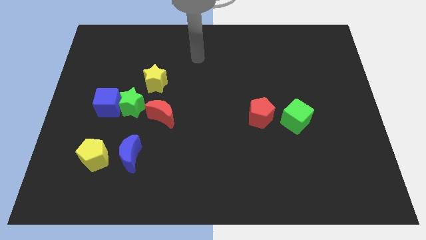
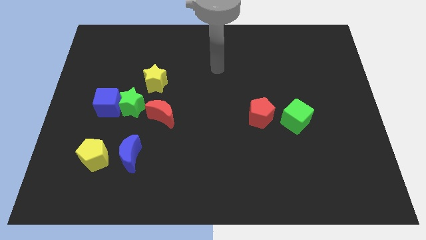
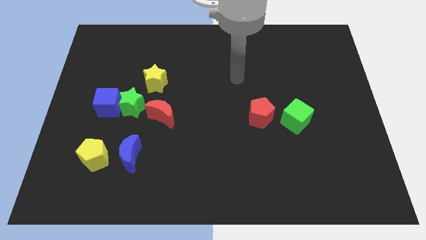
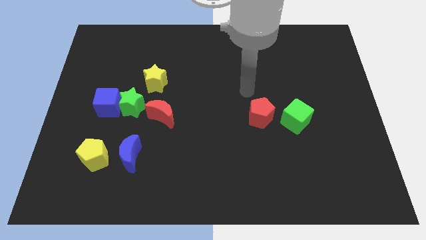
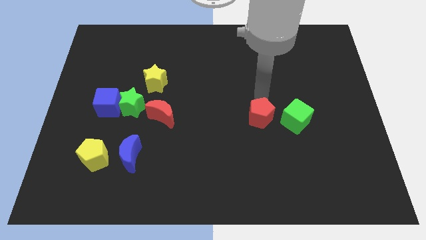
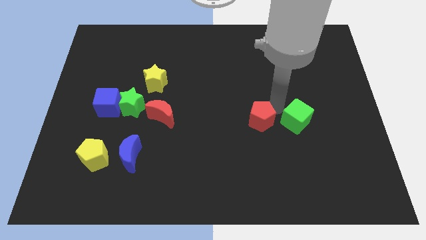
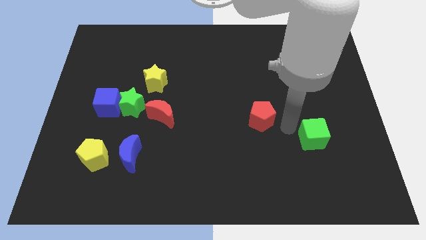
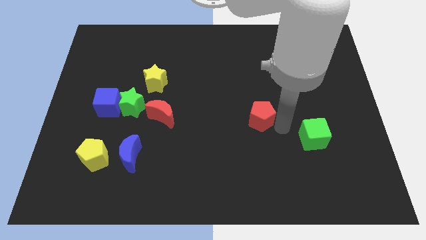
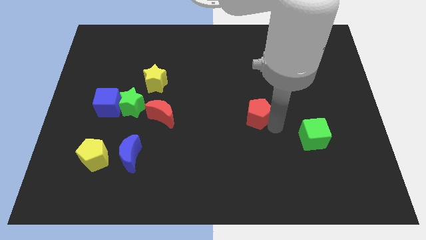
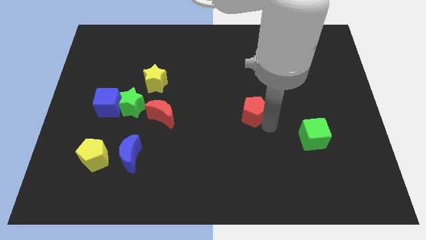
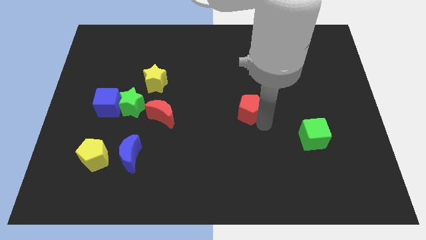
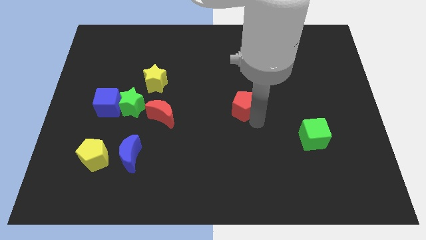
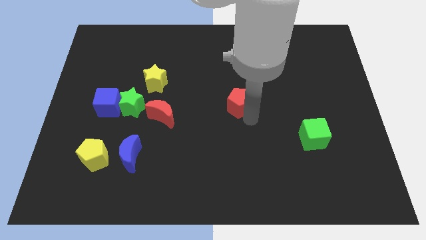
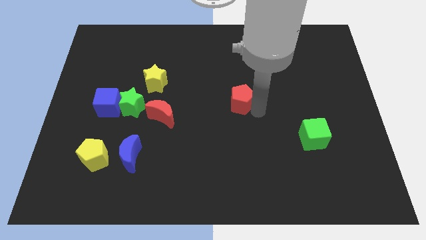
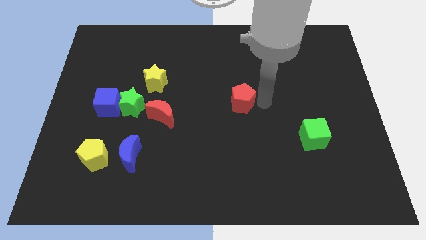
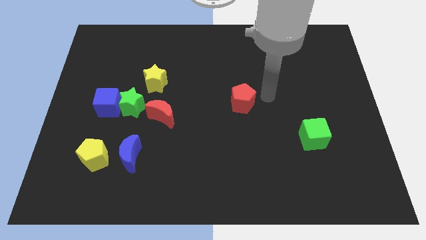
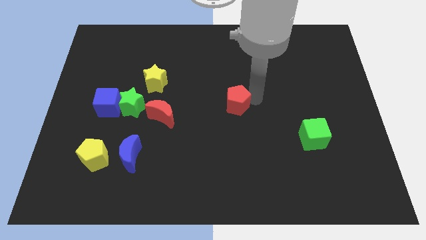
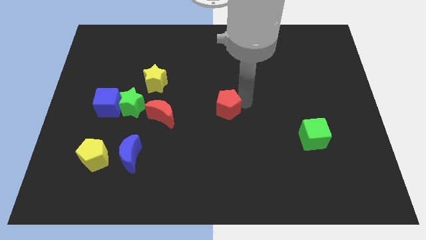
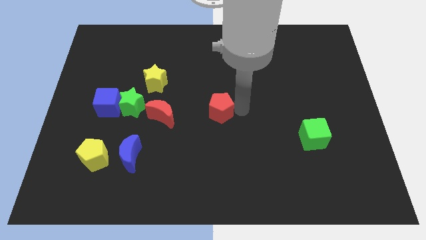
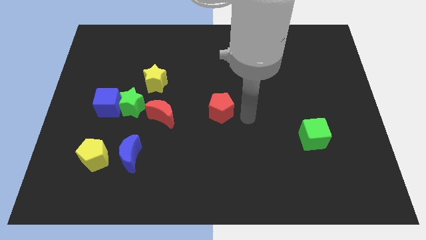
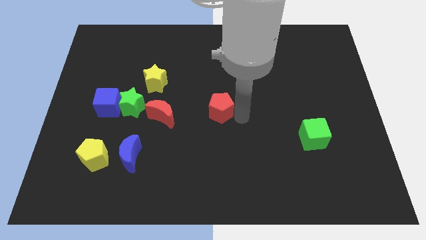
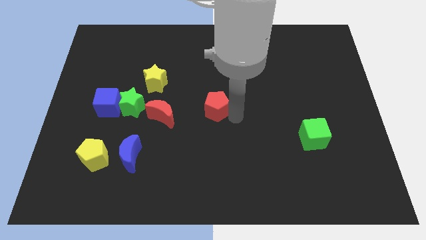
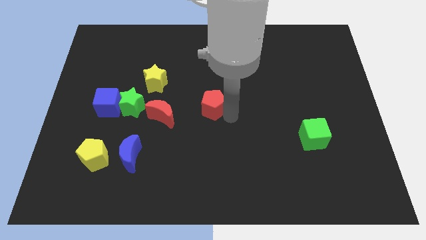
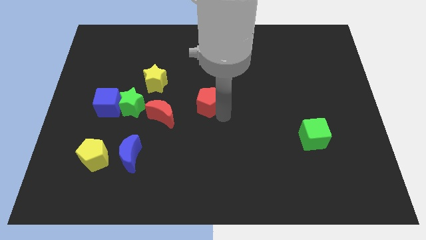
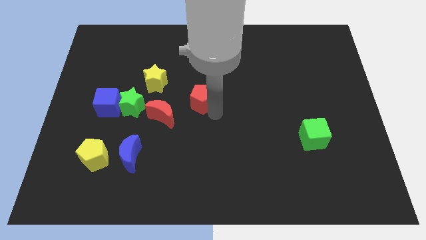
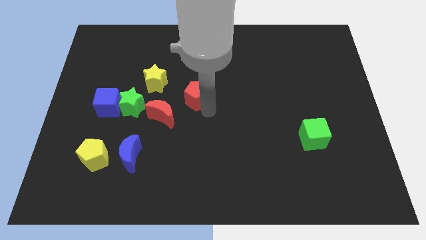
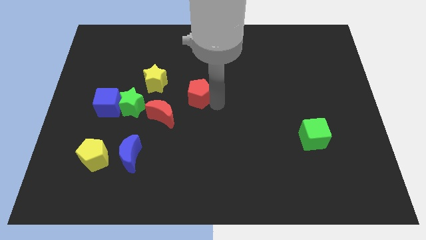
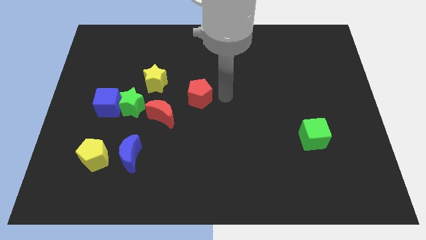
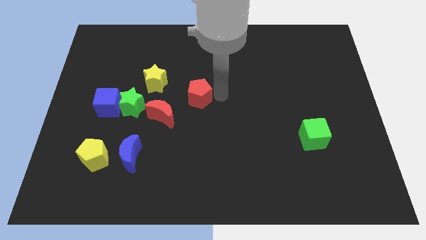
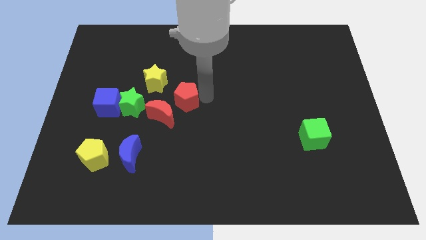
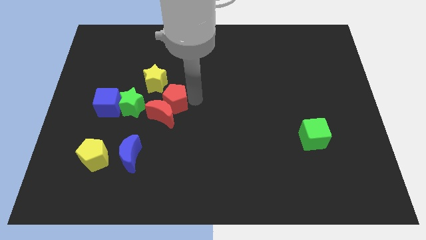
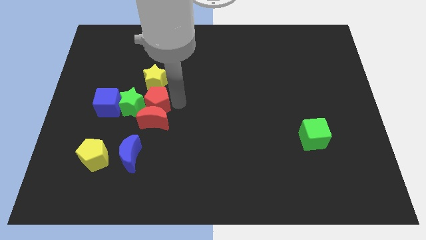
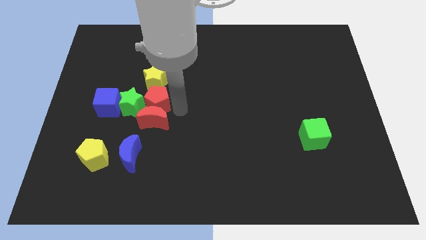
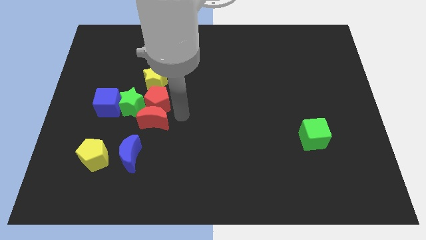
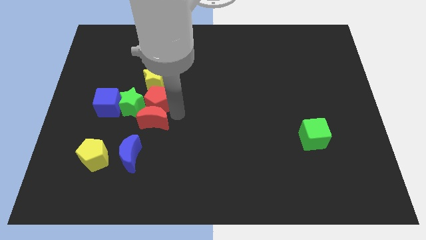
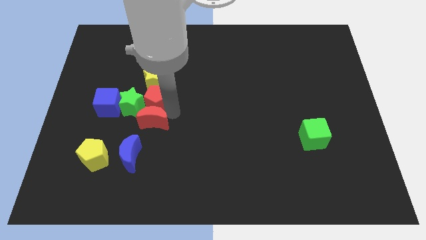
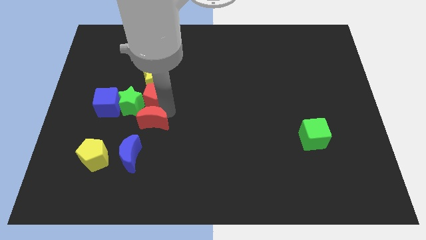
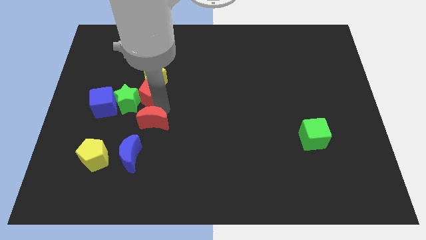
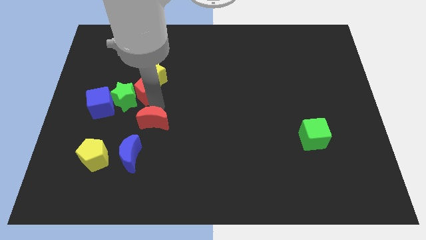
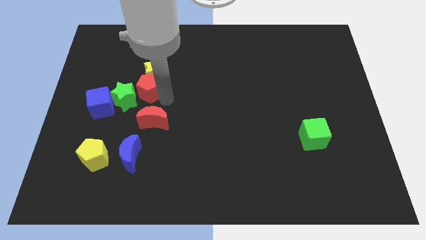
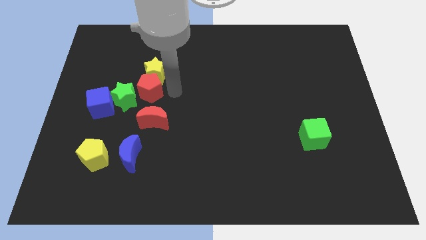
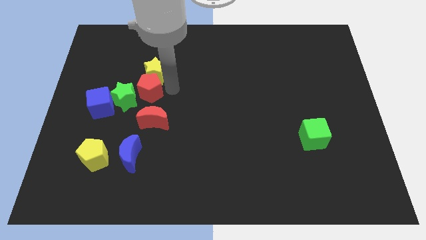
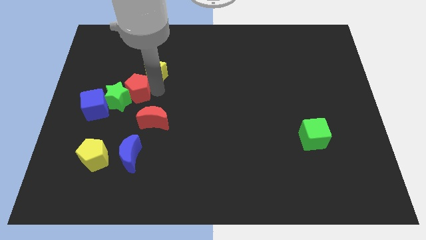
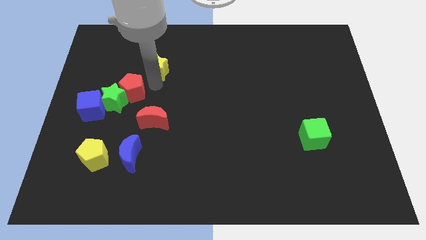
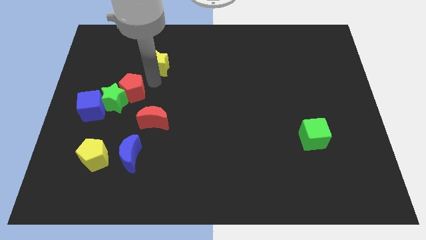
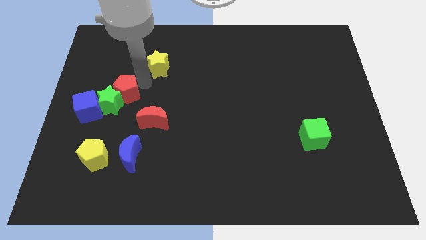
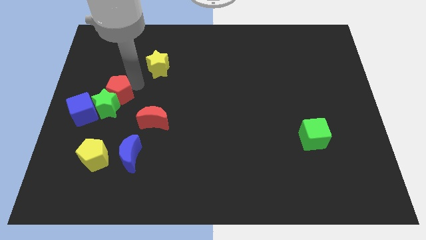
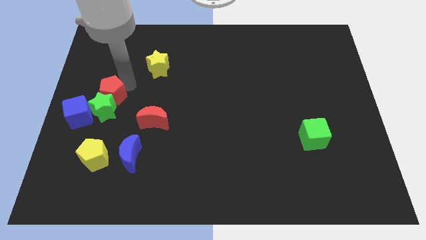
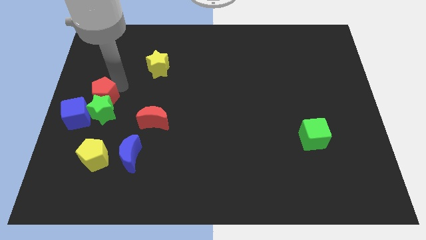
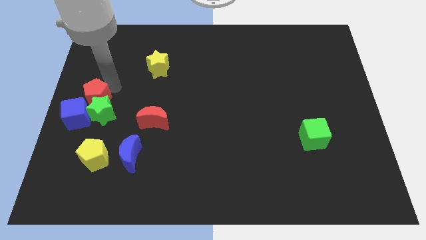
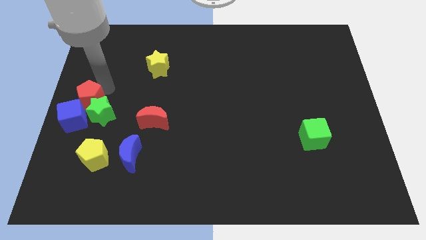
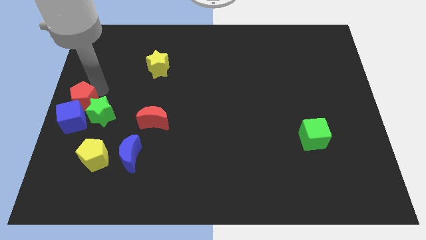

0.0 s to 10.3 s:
move the red pentagon close to the blue cube

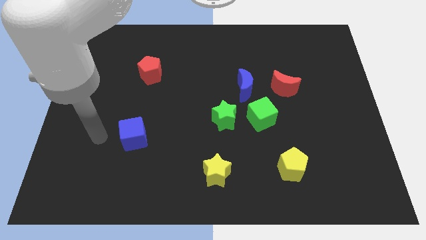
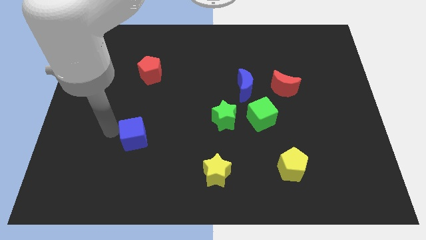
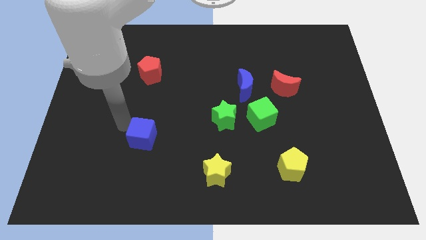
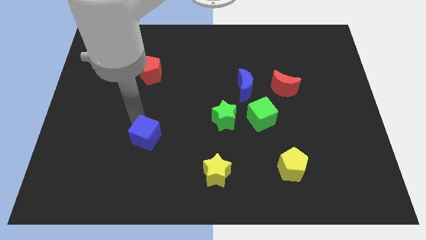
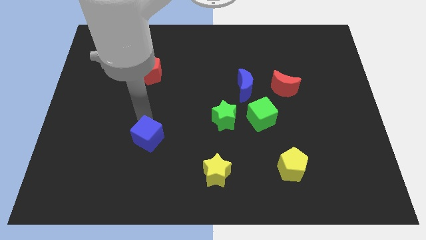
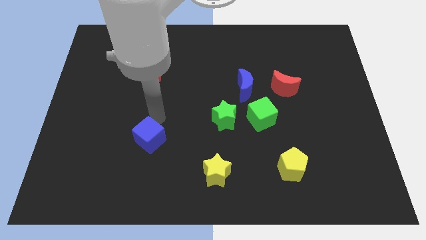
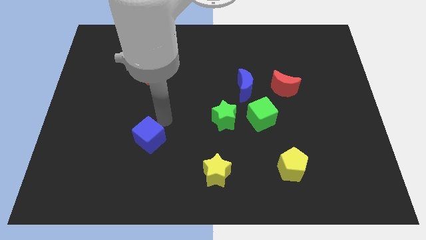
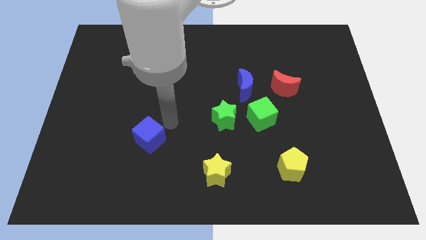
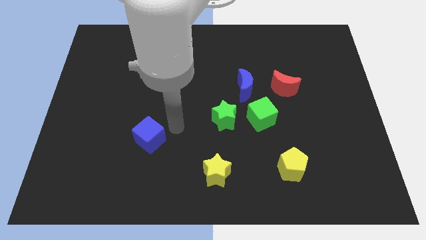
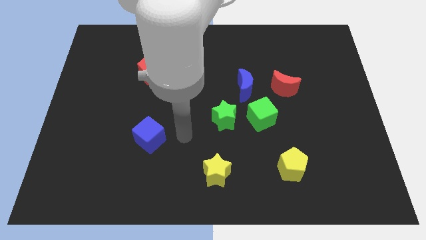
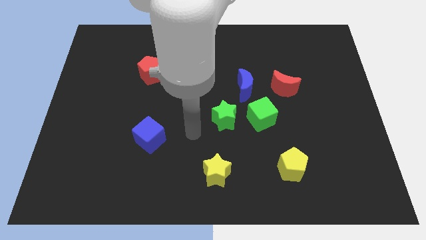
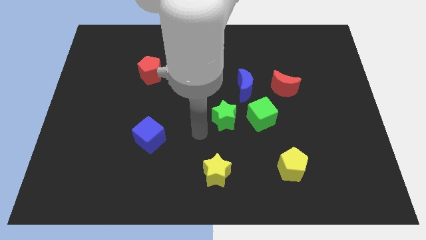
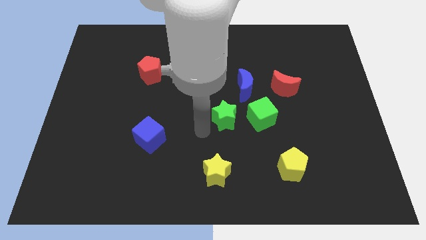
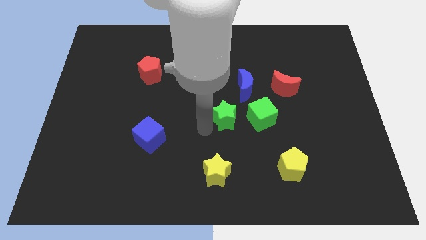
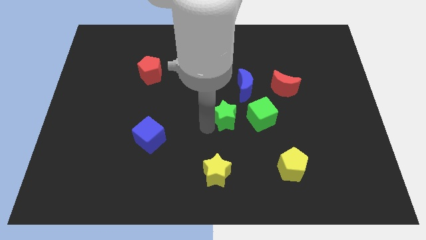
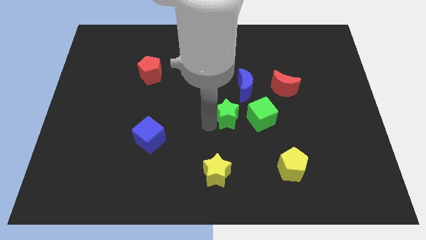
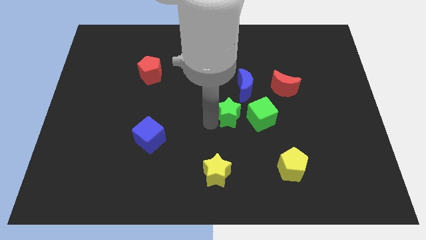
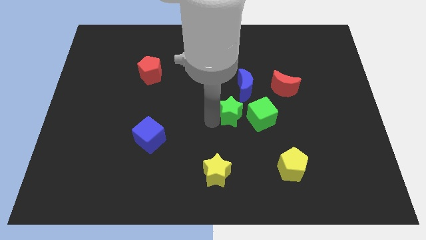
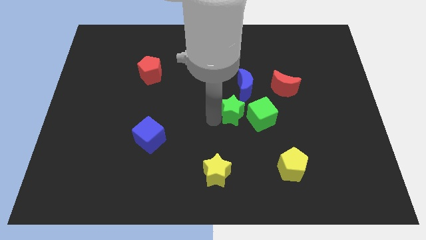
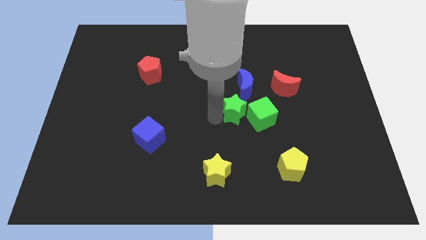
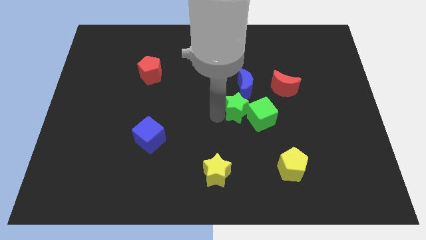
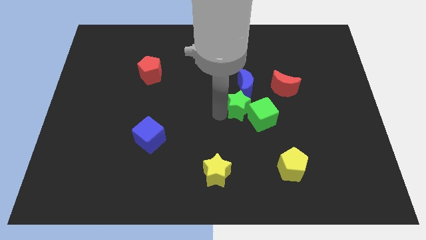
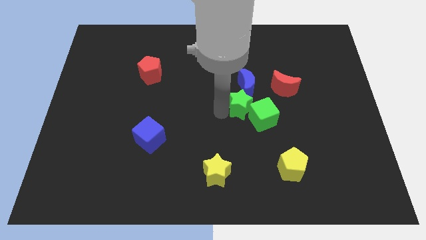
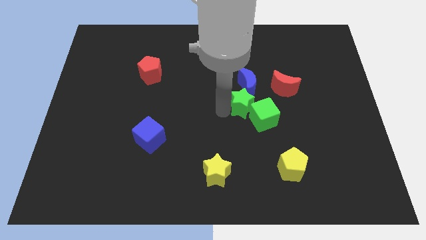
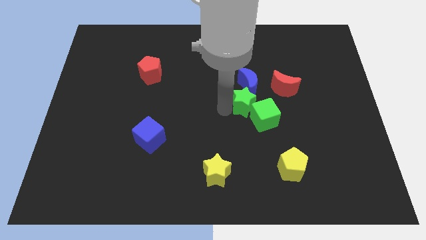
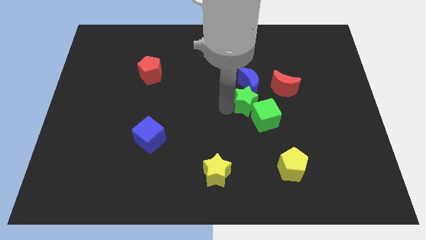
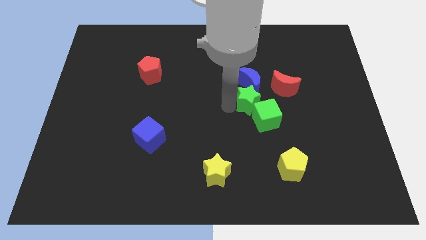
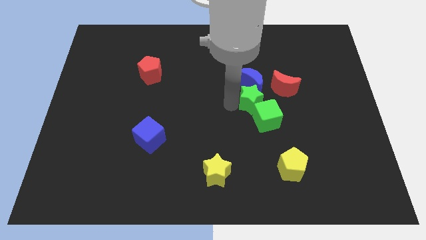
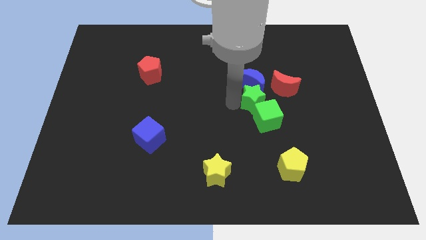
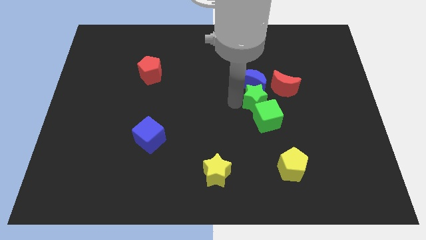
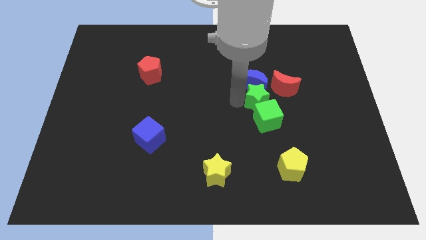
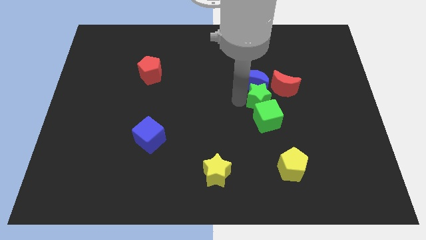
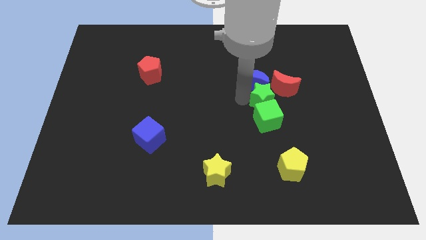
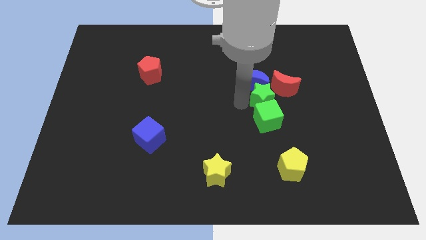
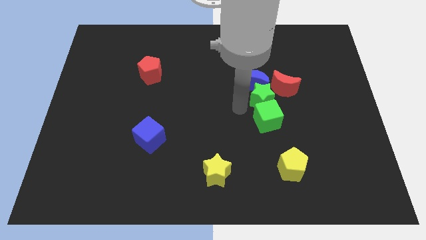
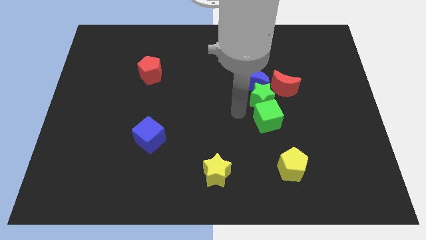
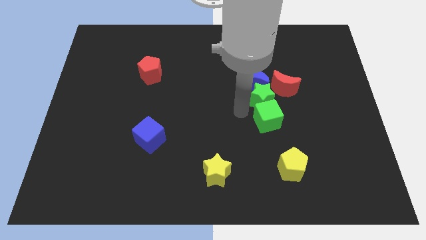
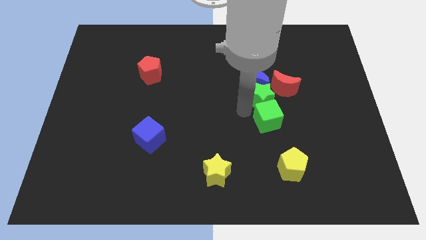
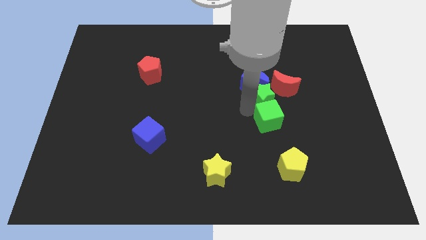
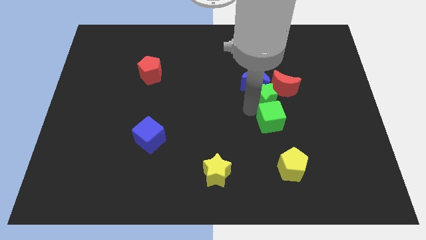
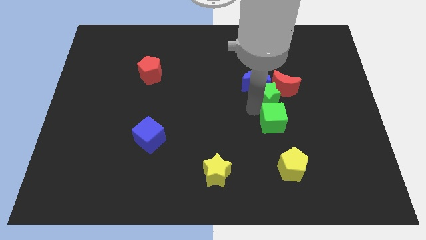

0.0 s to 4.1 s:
slide the green star to the red moon
